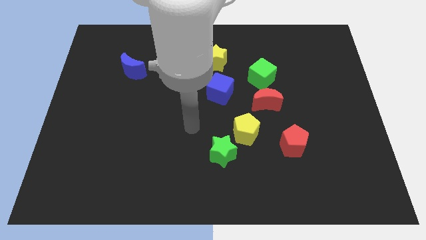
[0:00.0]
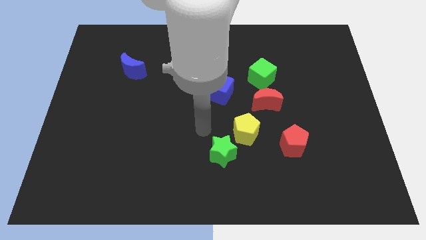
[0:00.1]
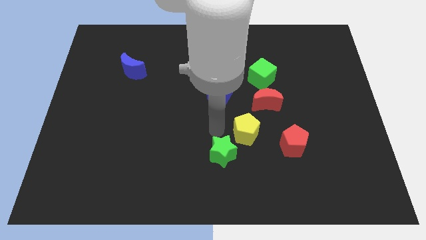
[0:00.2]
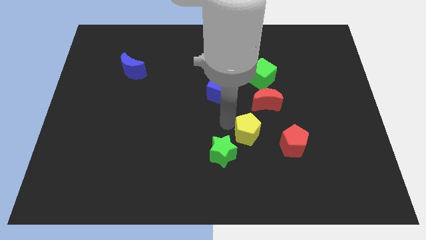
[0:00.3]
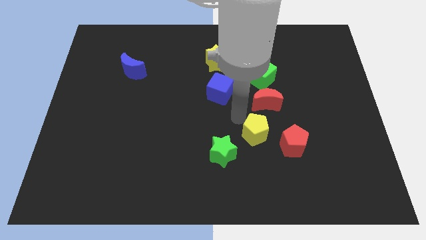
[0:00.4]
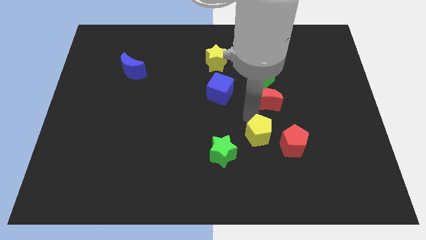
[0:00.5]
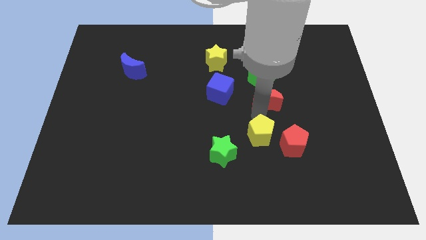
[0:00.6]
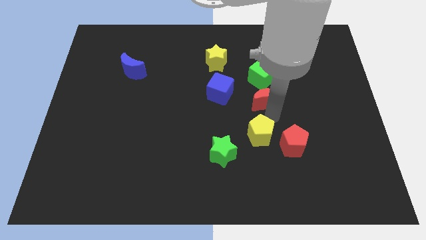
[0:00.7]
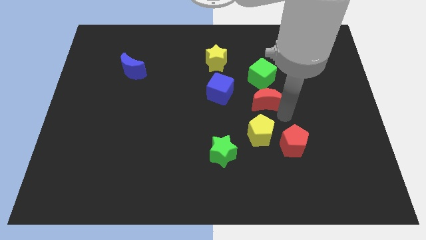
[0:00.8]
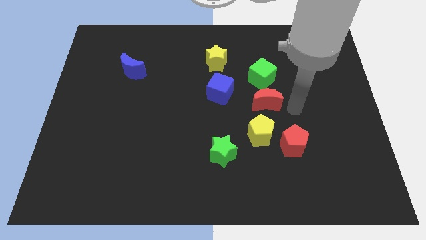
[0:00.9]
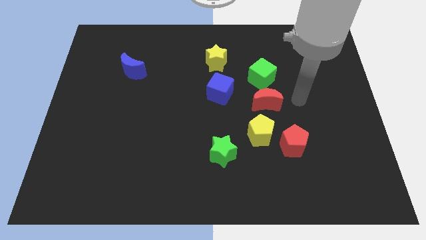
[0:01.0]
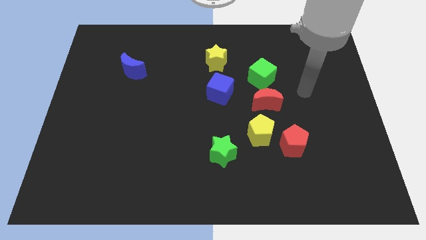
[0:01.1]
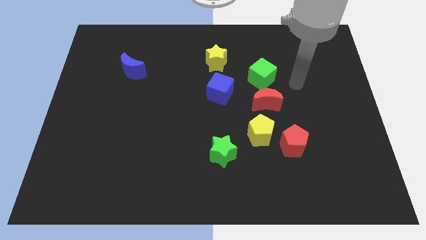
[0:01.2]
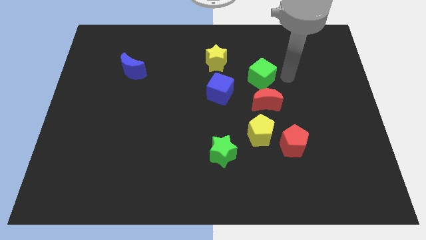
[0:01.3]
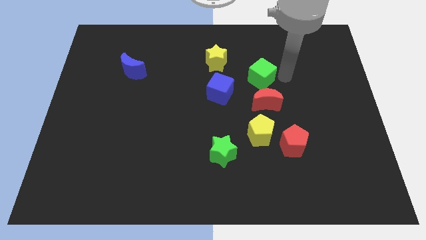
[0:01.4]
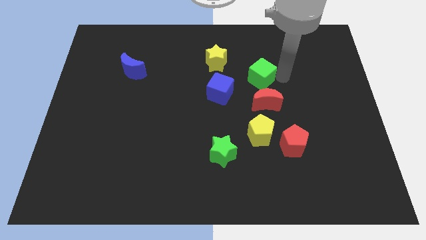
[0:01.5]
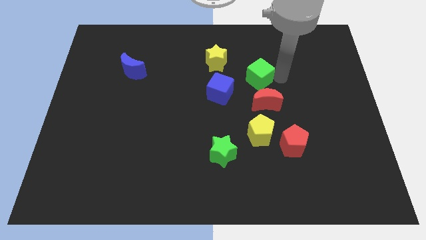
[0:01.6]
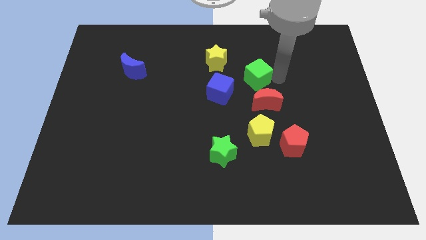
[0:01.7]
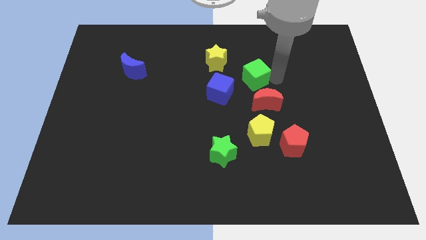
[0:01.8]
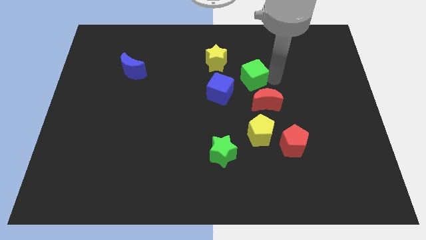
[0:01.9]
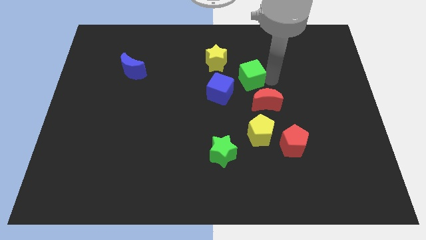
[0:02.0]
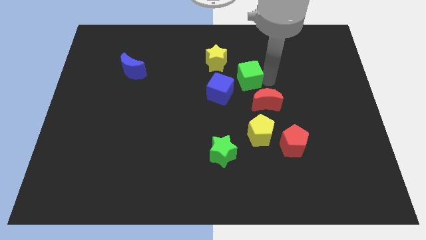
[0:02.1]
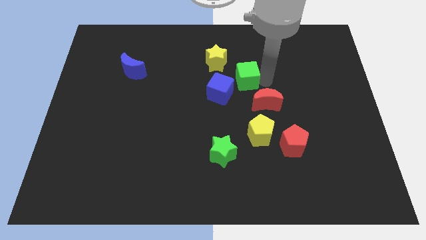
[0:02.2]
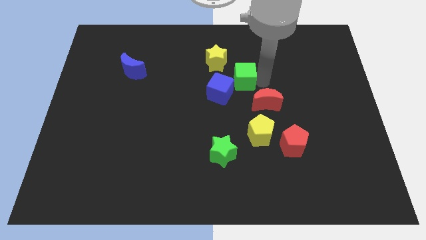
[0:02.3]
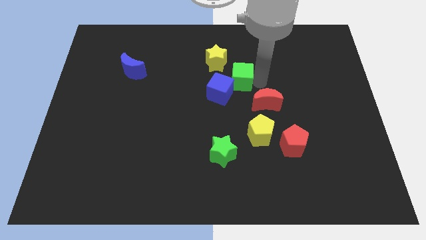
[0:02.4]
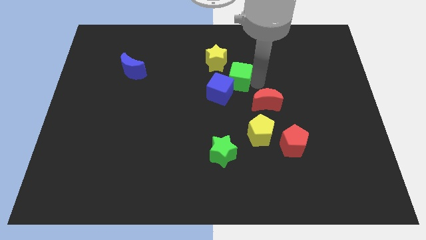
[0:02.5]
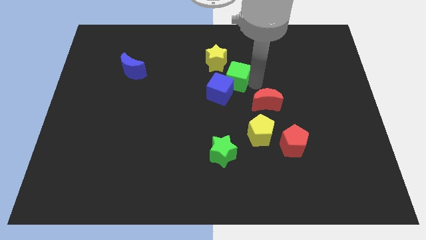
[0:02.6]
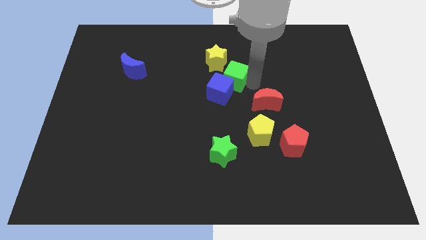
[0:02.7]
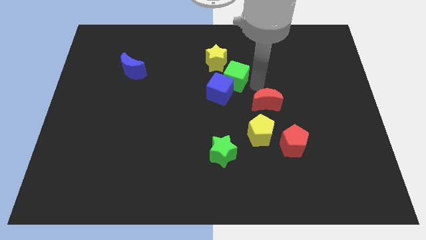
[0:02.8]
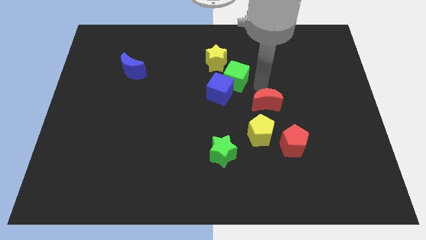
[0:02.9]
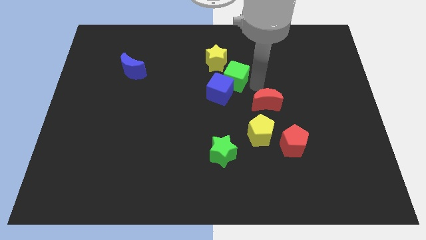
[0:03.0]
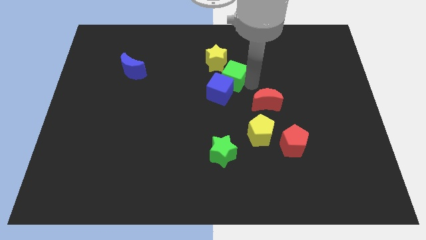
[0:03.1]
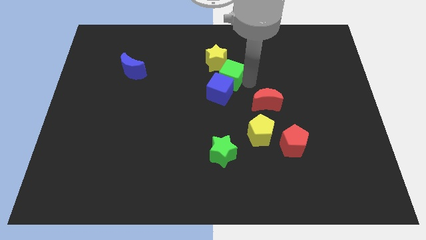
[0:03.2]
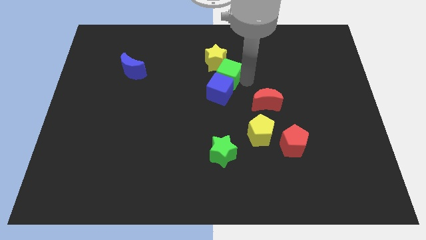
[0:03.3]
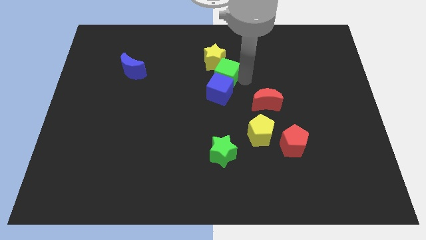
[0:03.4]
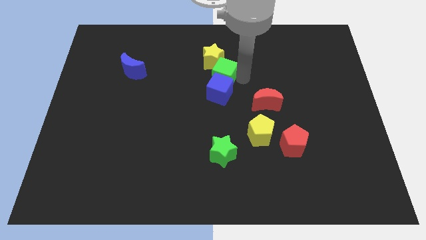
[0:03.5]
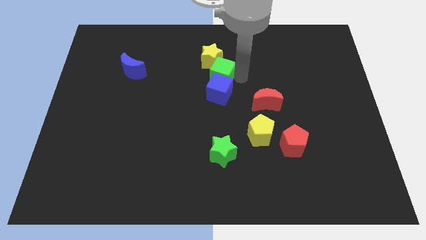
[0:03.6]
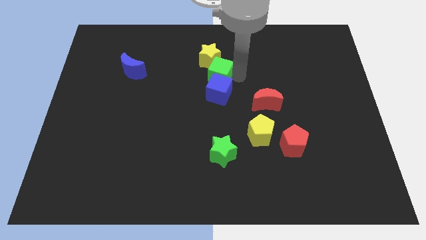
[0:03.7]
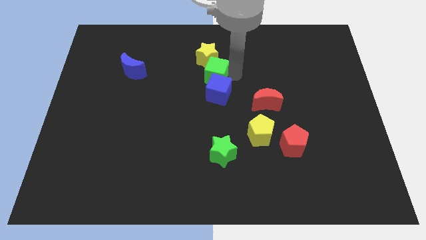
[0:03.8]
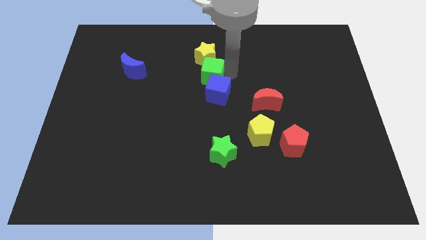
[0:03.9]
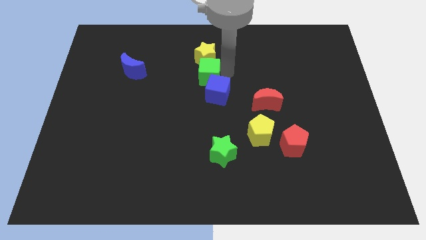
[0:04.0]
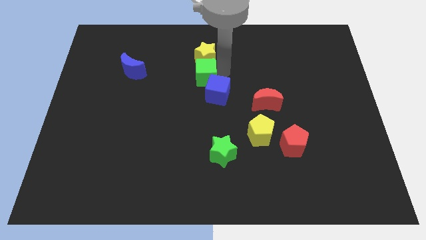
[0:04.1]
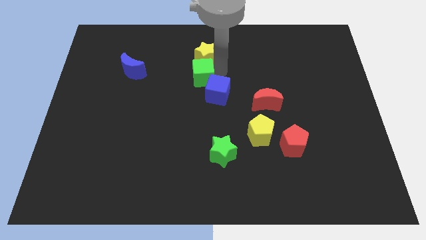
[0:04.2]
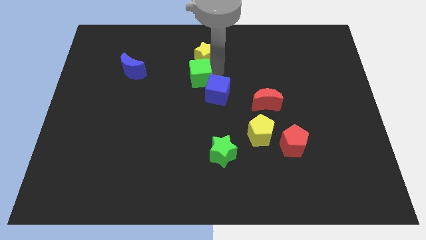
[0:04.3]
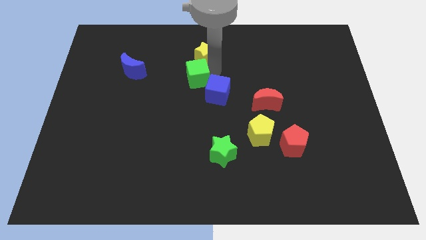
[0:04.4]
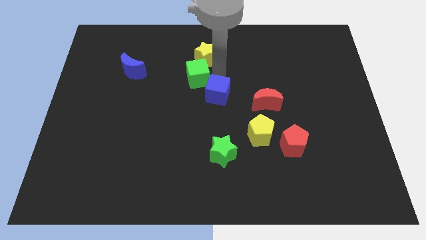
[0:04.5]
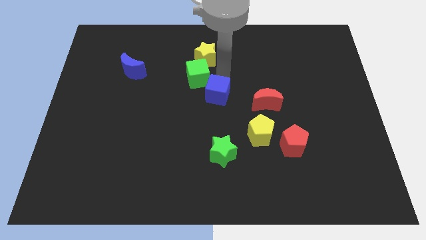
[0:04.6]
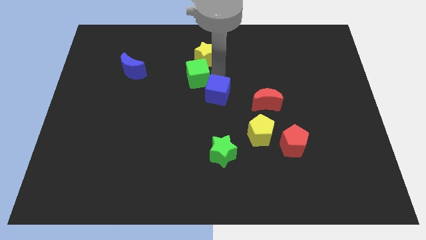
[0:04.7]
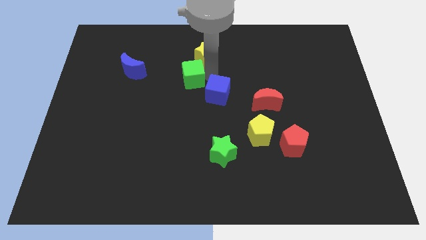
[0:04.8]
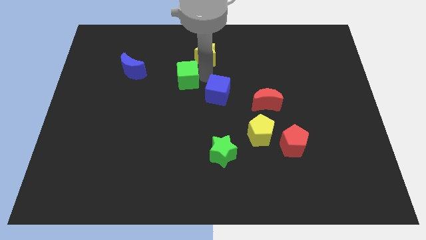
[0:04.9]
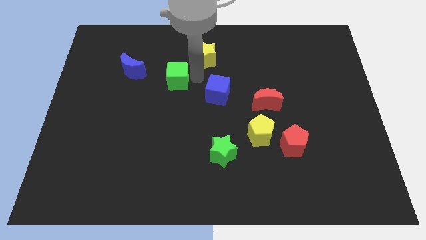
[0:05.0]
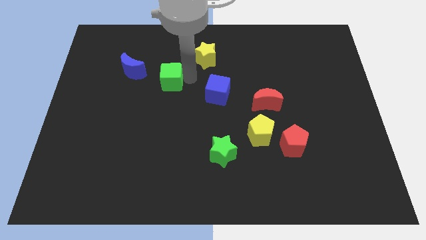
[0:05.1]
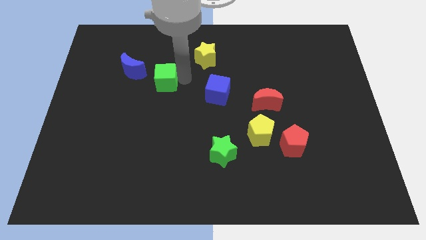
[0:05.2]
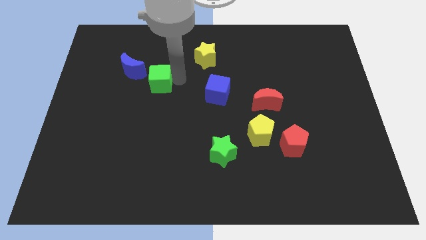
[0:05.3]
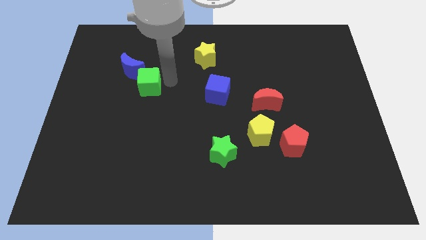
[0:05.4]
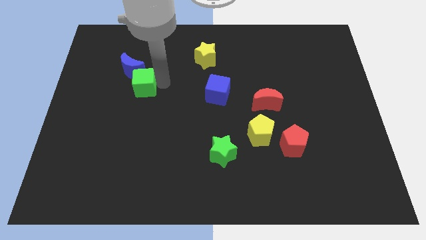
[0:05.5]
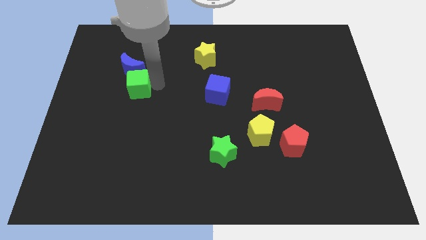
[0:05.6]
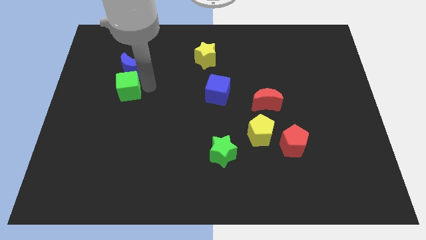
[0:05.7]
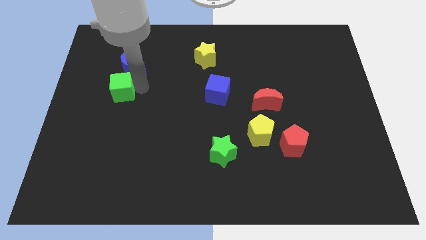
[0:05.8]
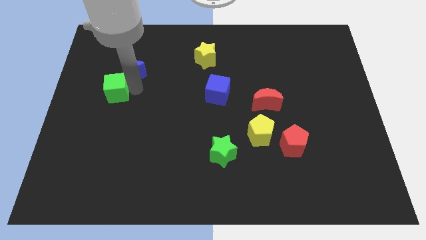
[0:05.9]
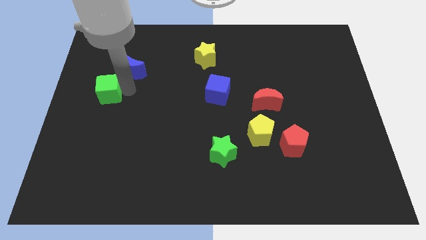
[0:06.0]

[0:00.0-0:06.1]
slide the green cube to the left side
